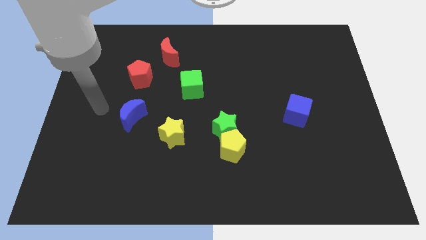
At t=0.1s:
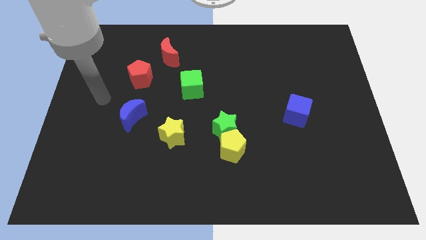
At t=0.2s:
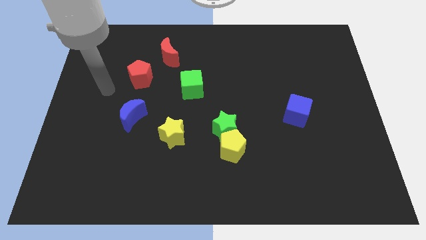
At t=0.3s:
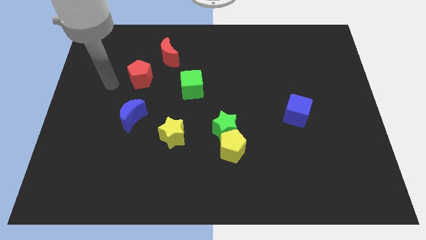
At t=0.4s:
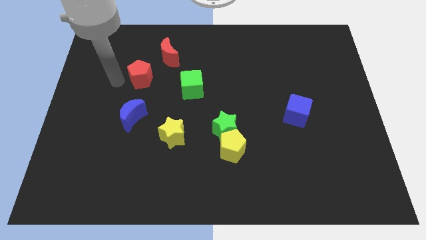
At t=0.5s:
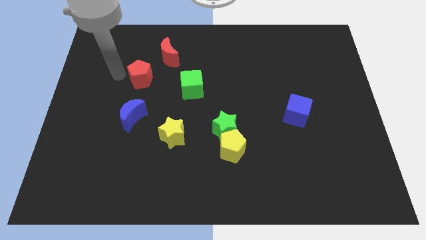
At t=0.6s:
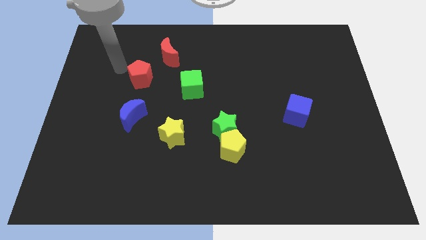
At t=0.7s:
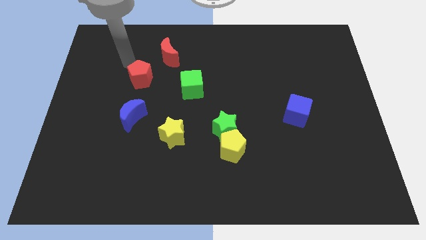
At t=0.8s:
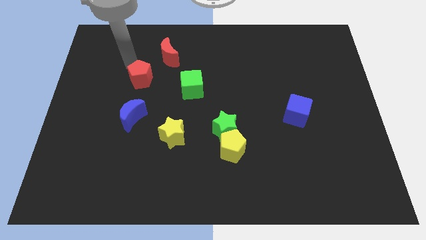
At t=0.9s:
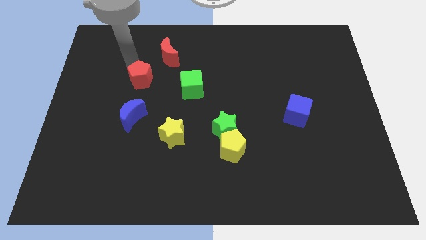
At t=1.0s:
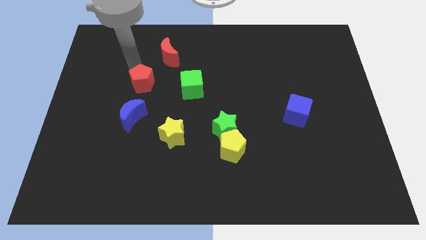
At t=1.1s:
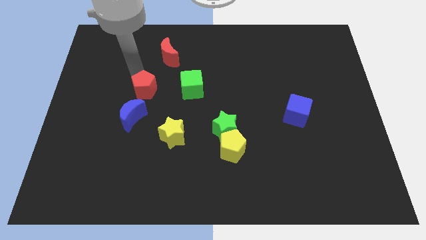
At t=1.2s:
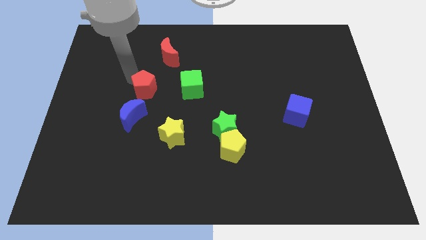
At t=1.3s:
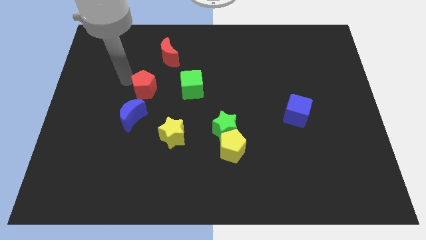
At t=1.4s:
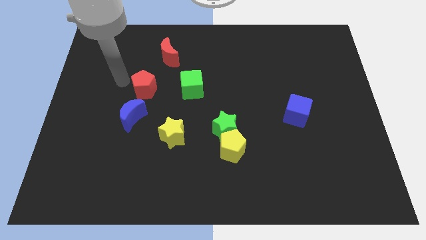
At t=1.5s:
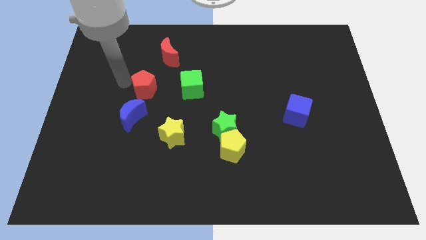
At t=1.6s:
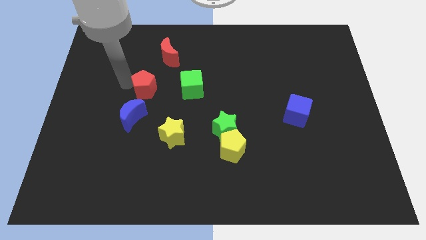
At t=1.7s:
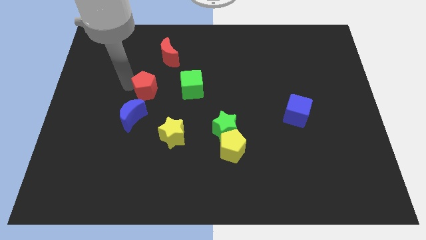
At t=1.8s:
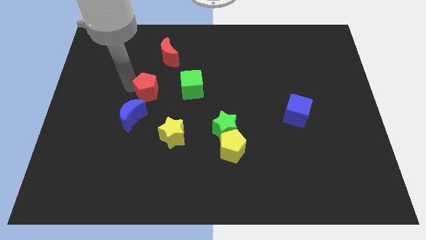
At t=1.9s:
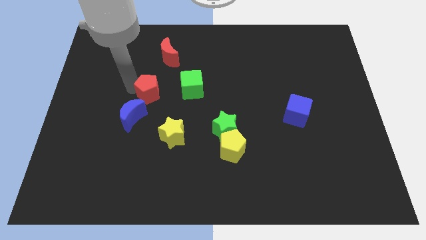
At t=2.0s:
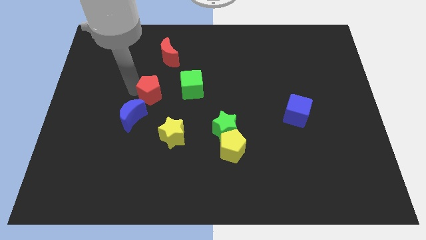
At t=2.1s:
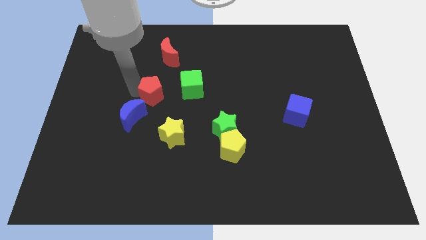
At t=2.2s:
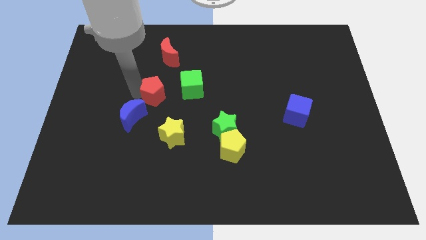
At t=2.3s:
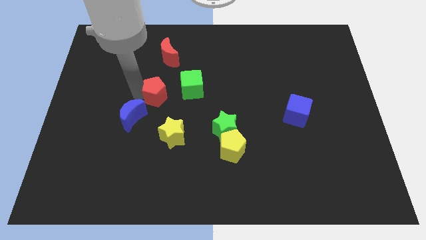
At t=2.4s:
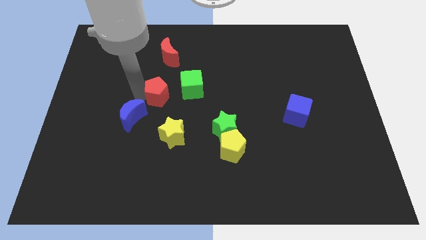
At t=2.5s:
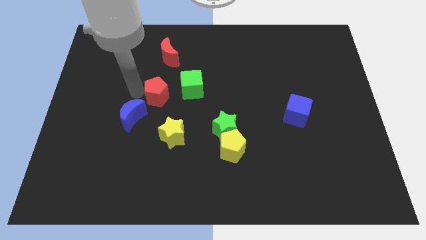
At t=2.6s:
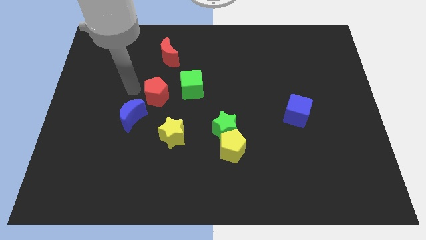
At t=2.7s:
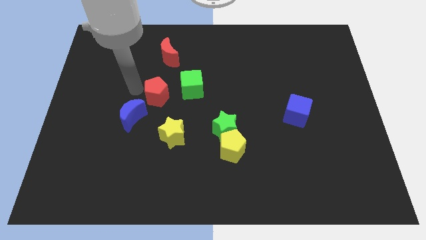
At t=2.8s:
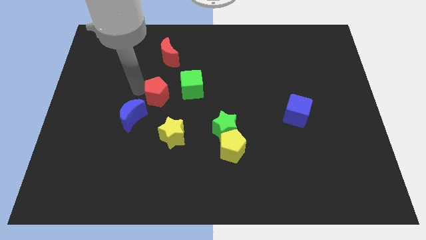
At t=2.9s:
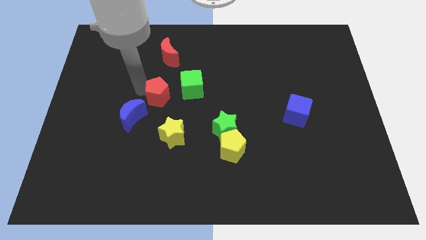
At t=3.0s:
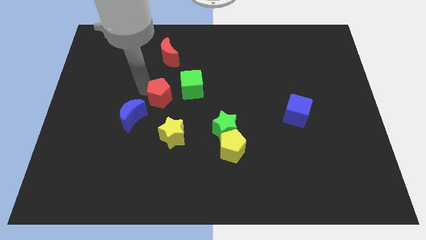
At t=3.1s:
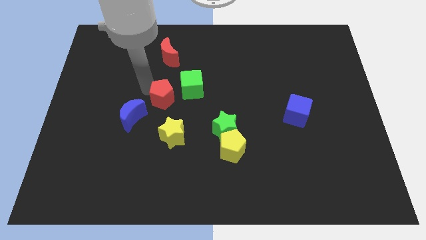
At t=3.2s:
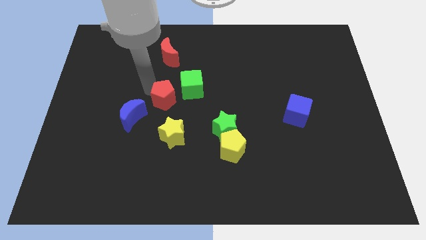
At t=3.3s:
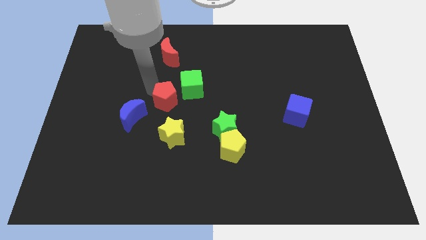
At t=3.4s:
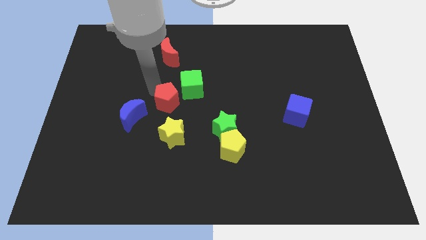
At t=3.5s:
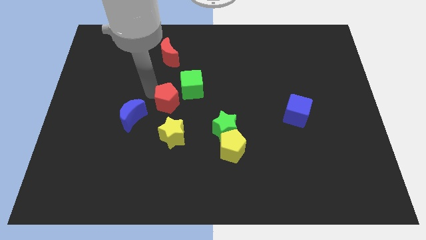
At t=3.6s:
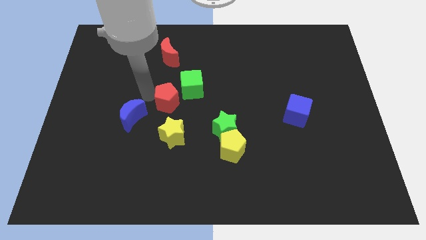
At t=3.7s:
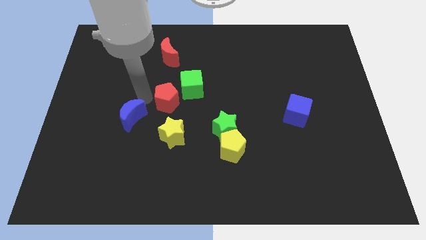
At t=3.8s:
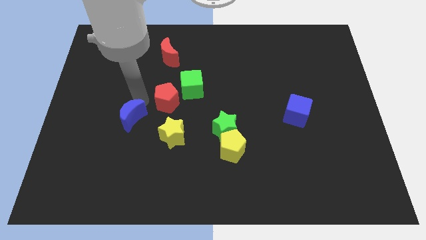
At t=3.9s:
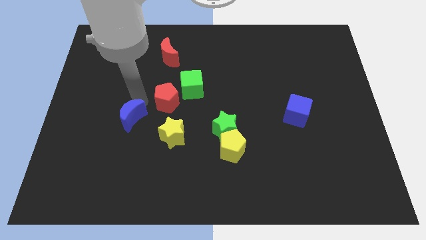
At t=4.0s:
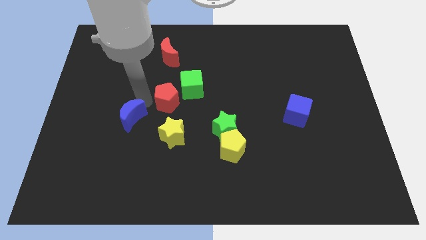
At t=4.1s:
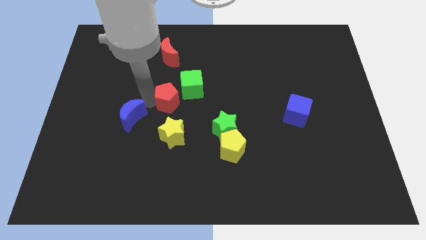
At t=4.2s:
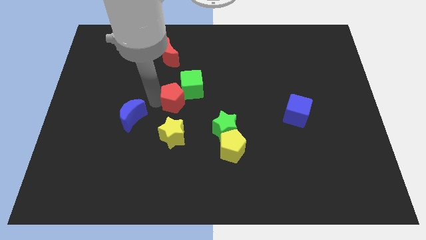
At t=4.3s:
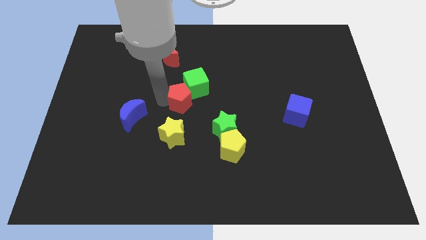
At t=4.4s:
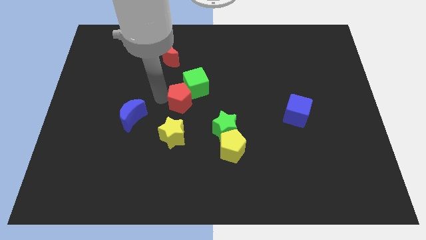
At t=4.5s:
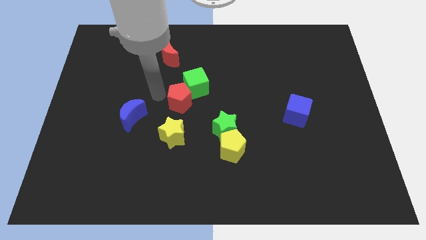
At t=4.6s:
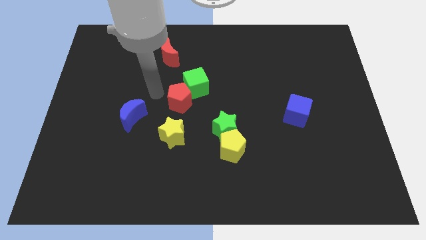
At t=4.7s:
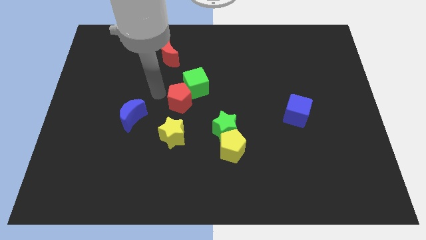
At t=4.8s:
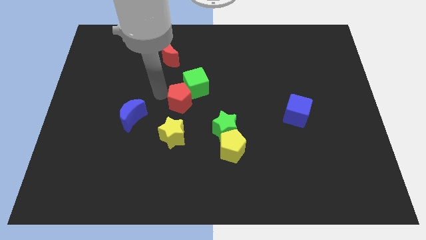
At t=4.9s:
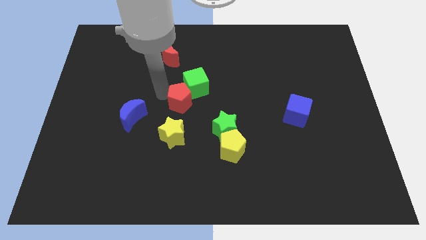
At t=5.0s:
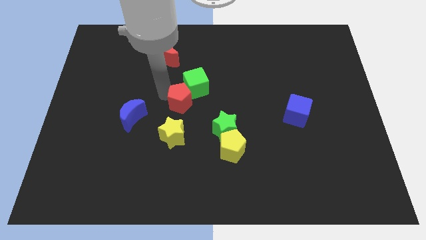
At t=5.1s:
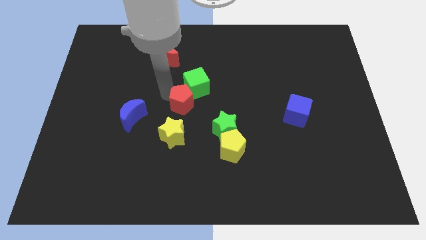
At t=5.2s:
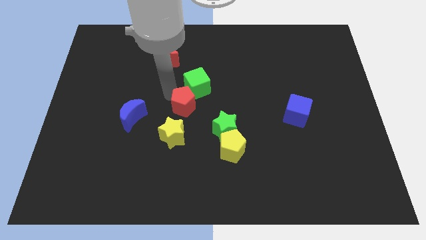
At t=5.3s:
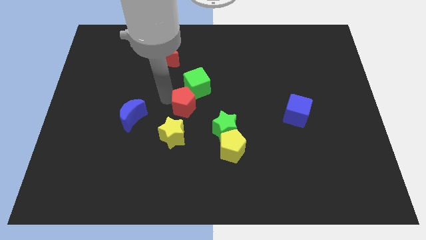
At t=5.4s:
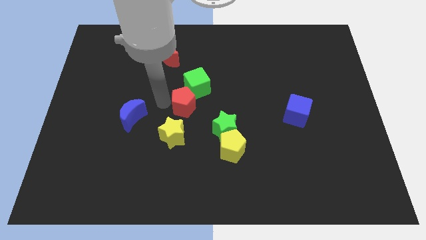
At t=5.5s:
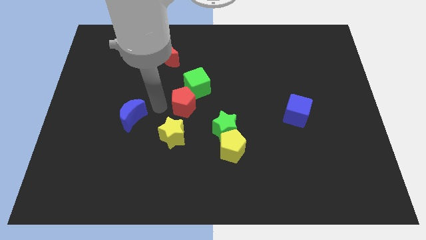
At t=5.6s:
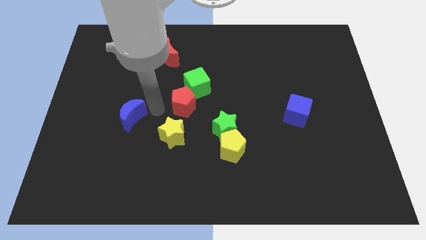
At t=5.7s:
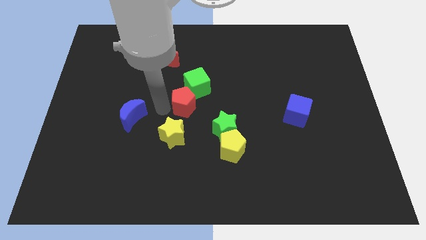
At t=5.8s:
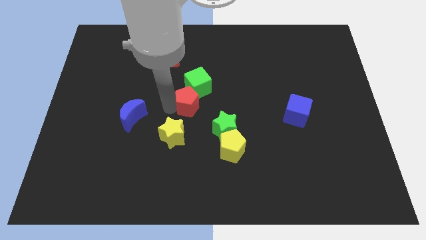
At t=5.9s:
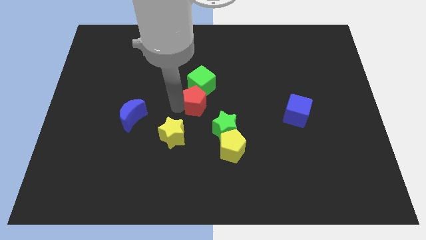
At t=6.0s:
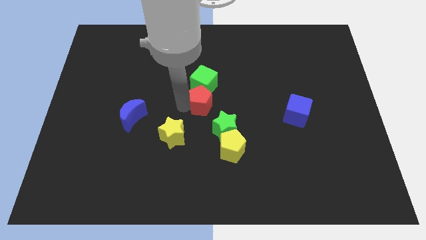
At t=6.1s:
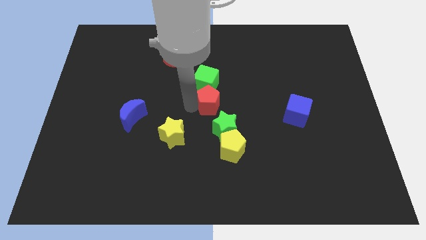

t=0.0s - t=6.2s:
slide the red pentagon to the top side of the green star

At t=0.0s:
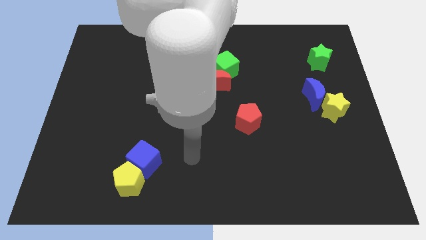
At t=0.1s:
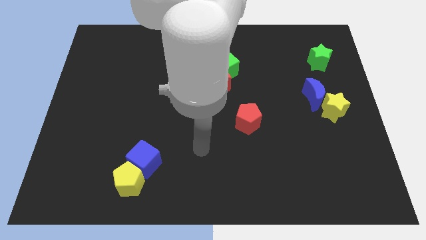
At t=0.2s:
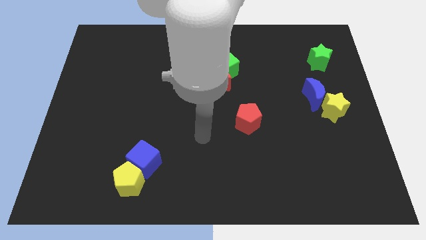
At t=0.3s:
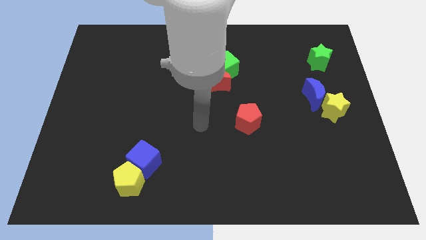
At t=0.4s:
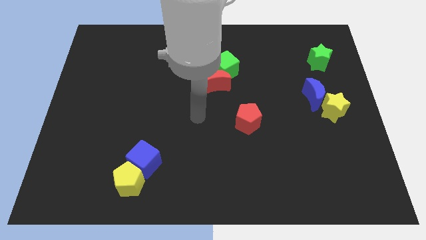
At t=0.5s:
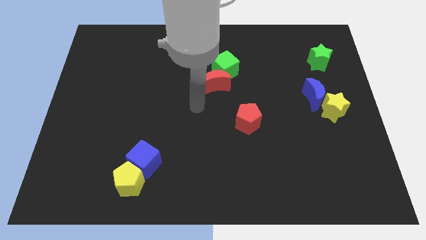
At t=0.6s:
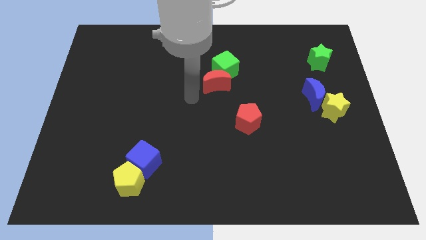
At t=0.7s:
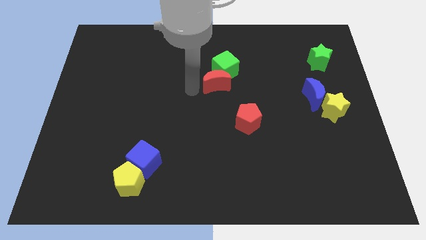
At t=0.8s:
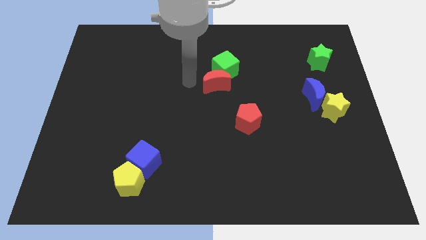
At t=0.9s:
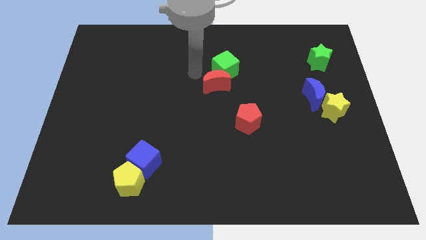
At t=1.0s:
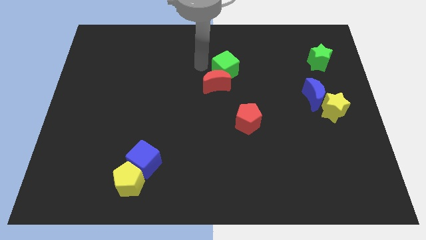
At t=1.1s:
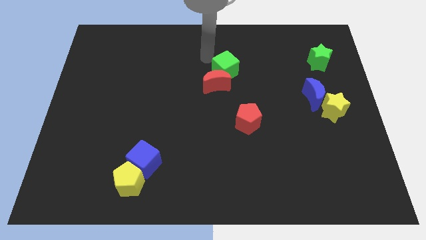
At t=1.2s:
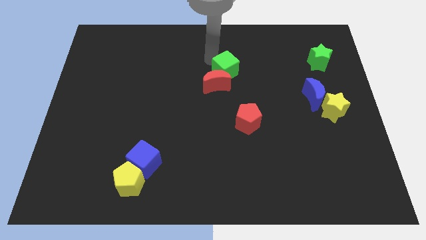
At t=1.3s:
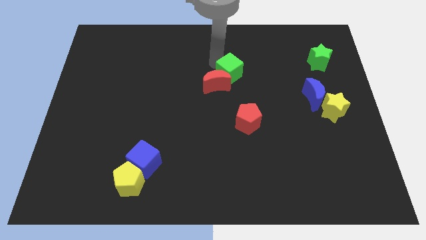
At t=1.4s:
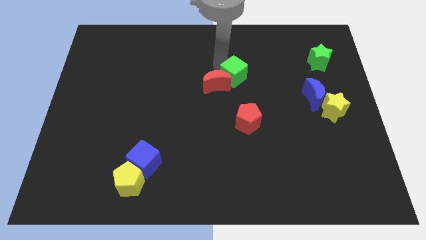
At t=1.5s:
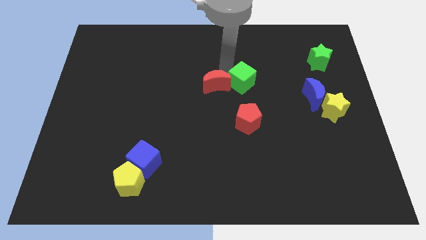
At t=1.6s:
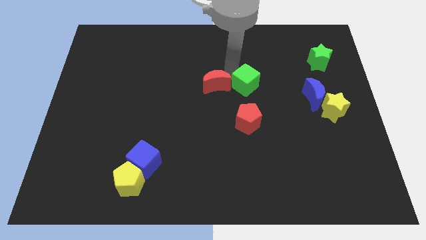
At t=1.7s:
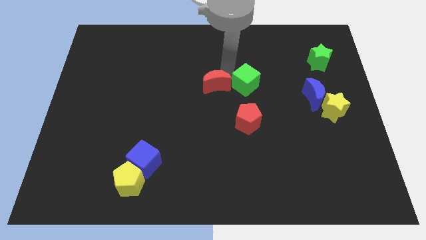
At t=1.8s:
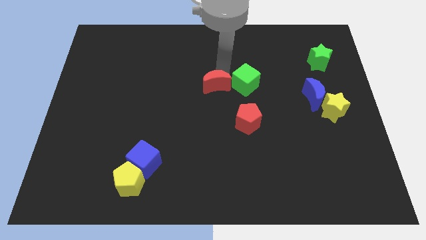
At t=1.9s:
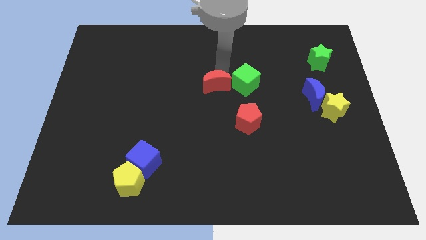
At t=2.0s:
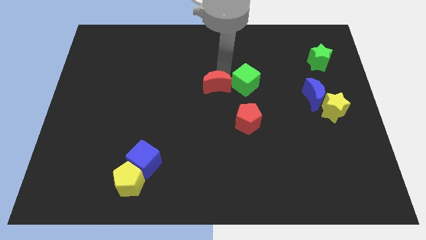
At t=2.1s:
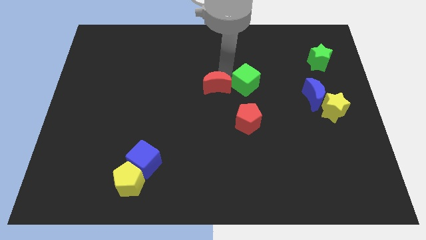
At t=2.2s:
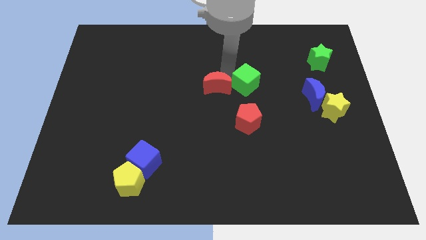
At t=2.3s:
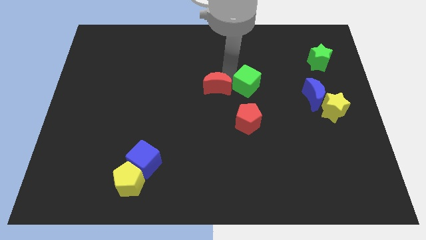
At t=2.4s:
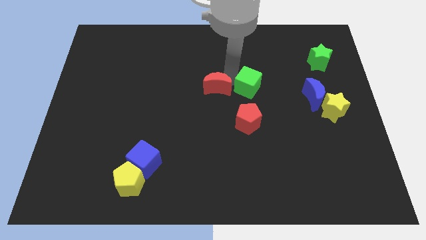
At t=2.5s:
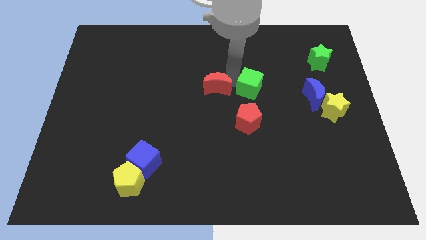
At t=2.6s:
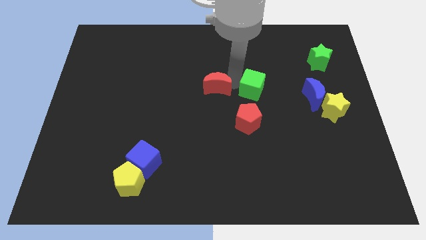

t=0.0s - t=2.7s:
slide the green cube left of the blue moon
